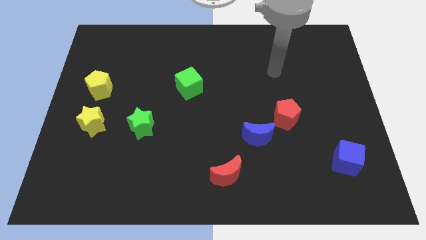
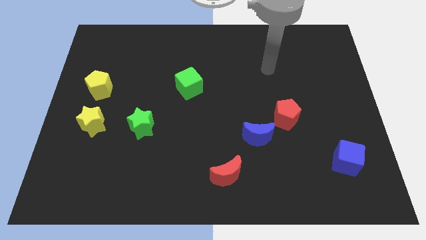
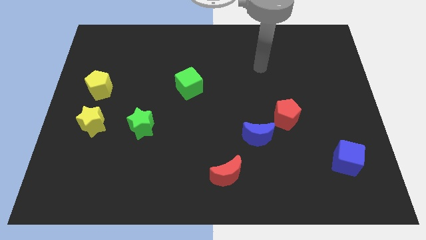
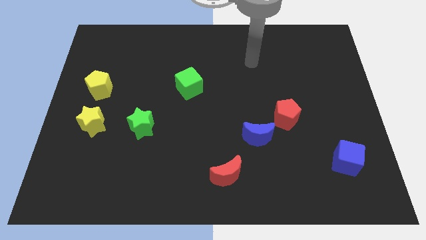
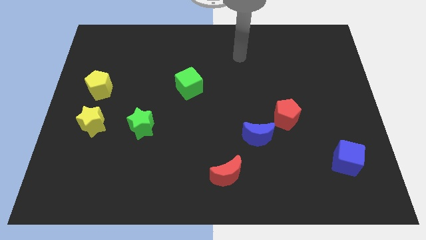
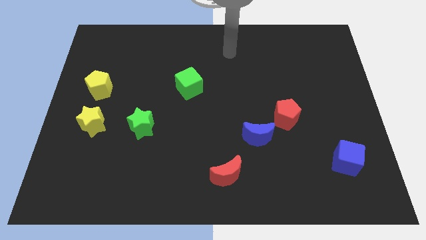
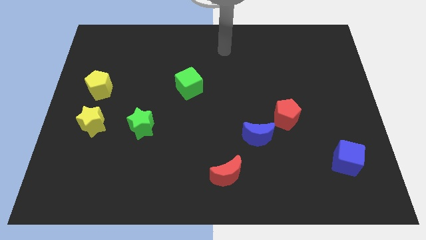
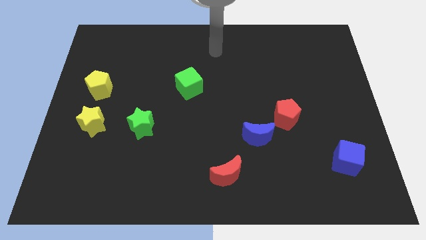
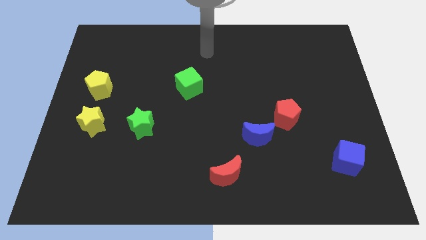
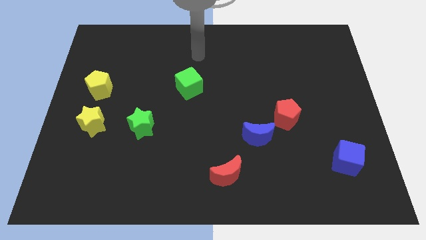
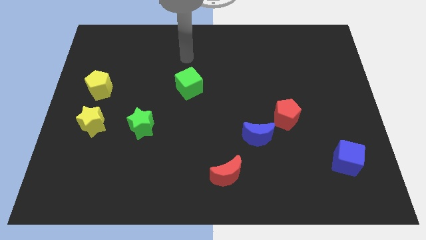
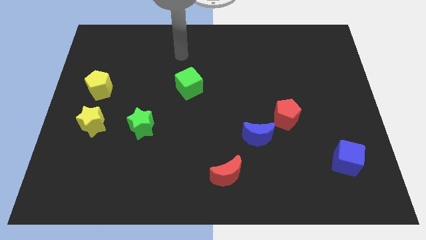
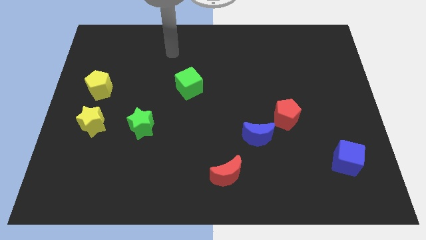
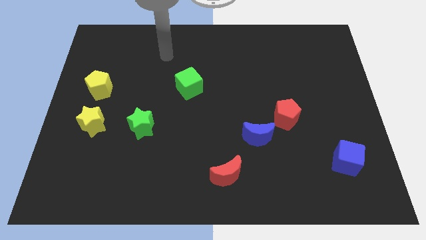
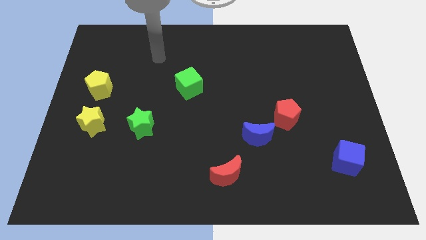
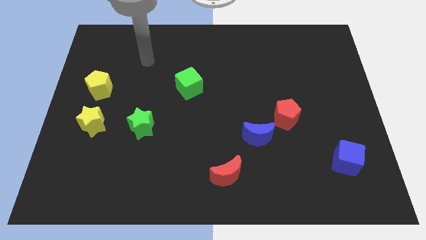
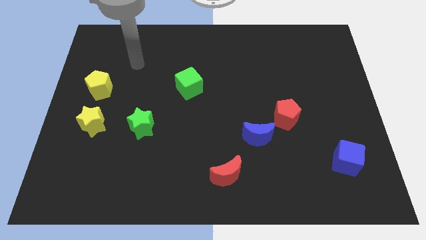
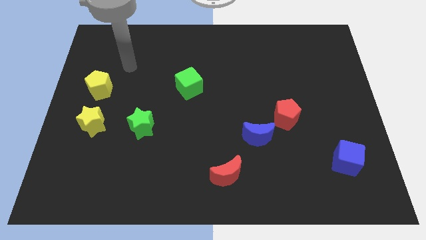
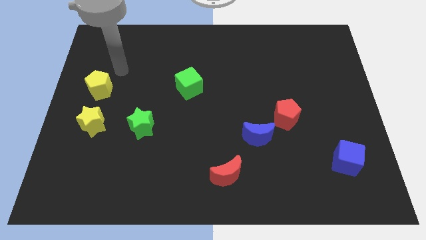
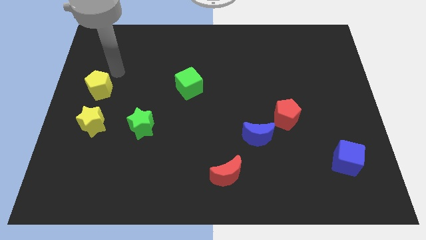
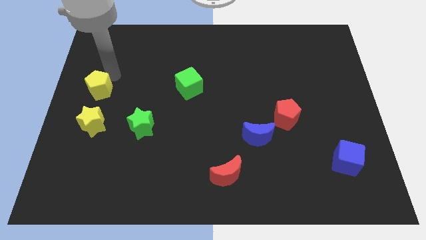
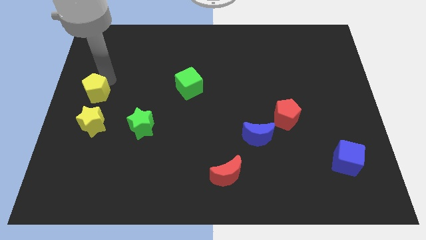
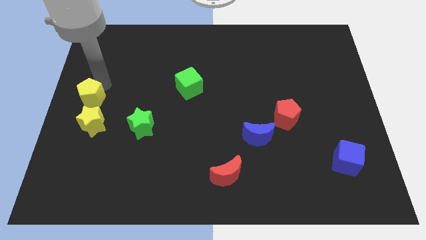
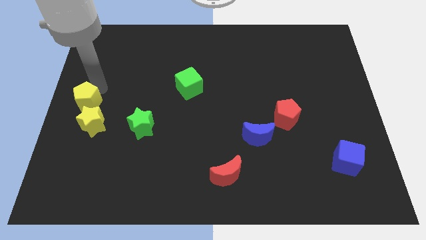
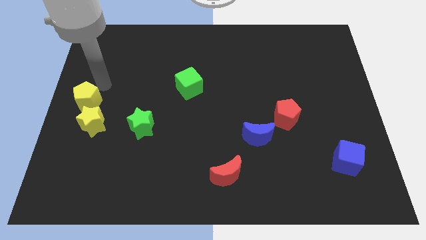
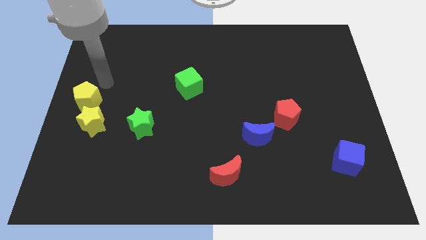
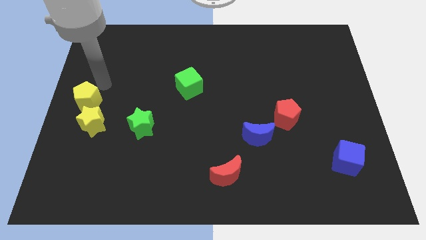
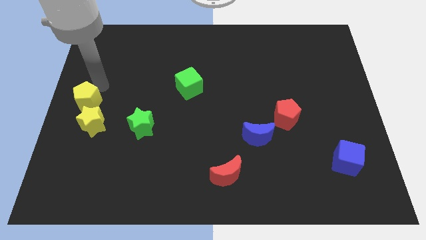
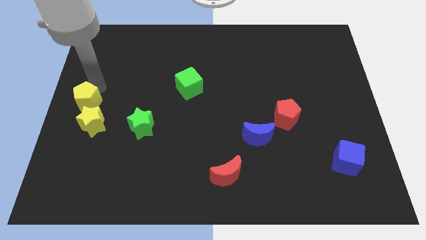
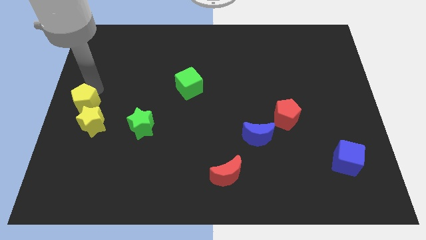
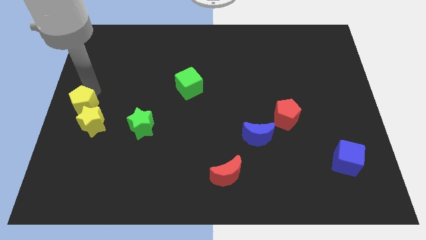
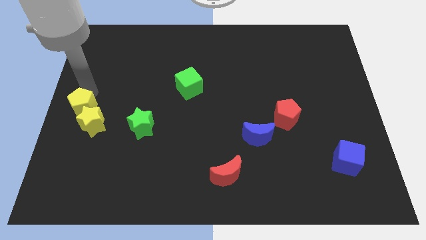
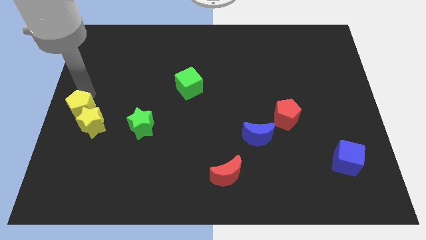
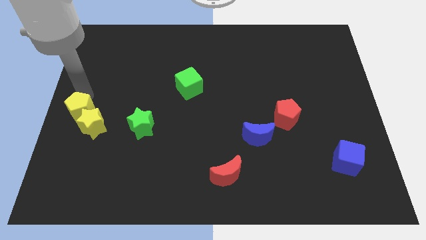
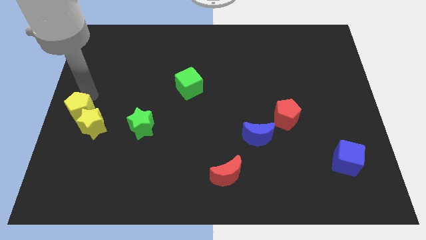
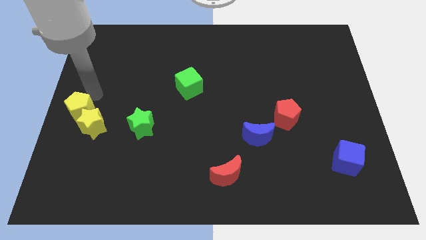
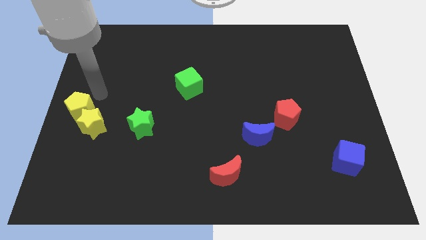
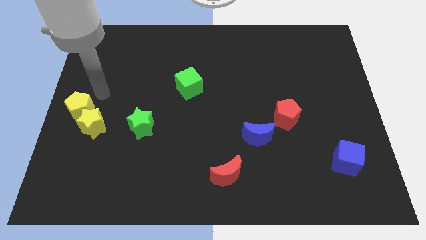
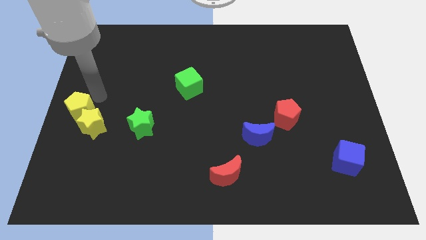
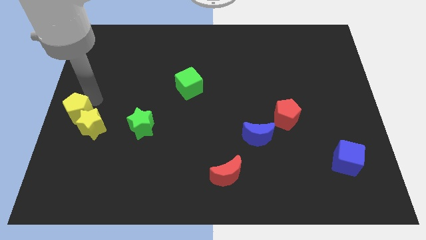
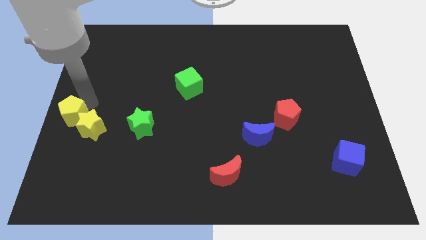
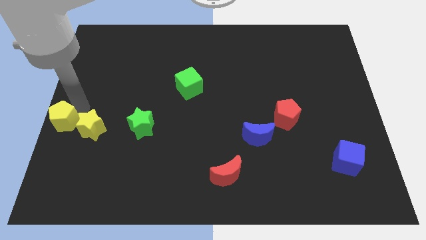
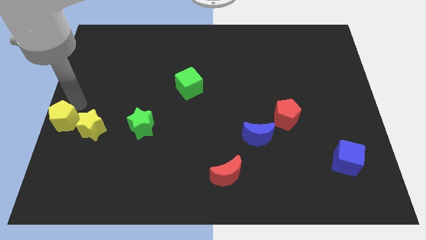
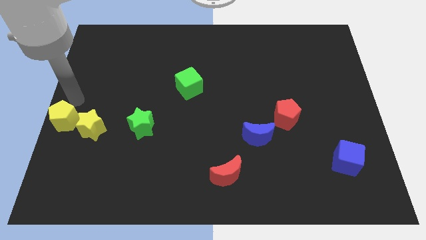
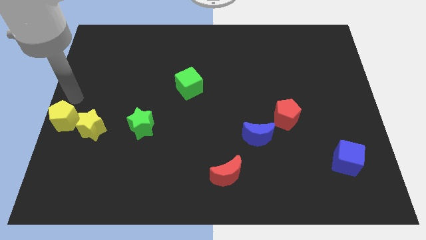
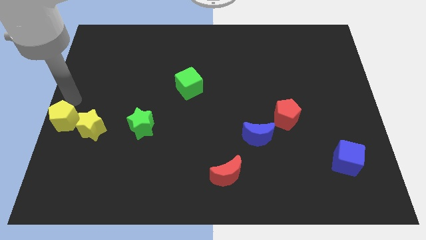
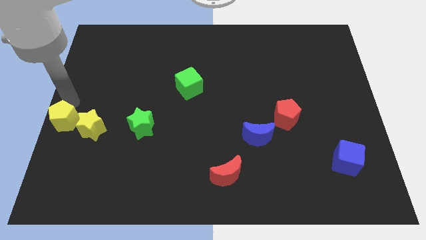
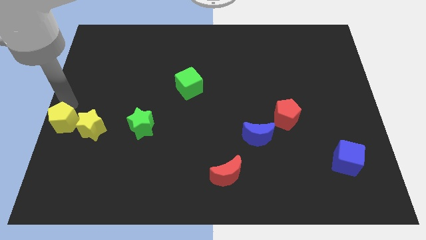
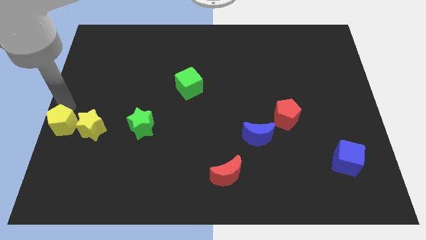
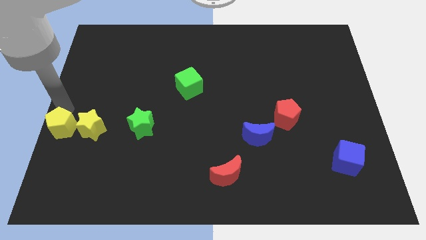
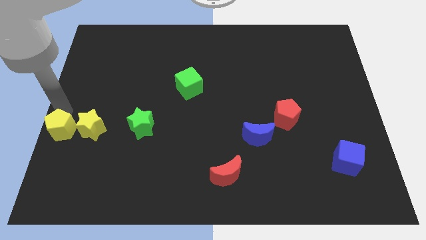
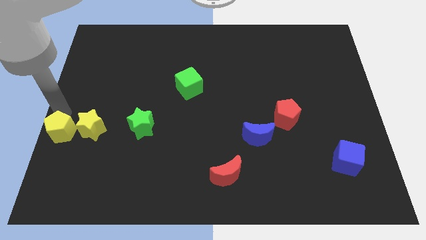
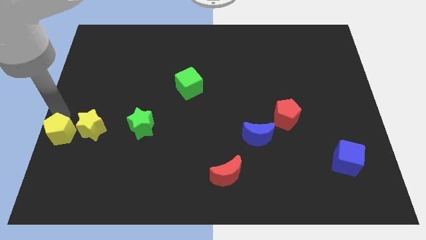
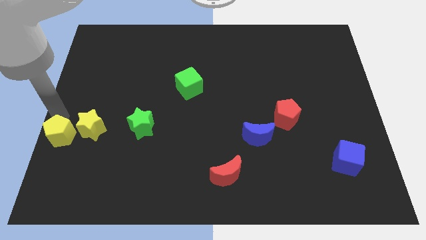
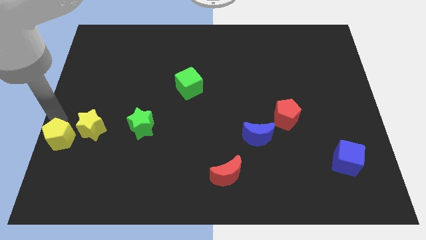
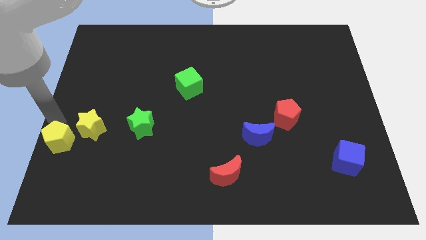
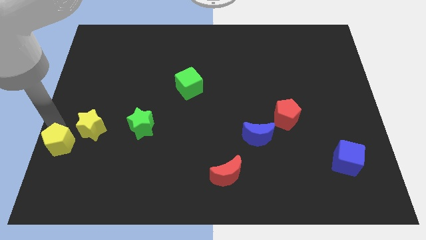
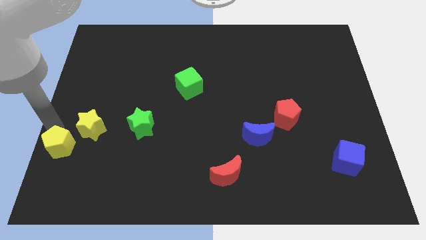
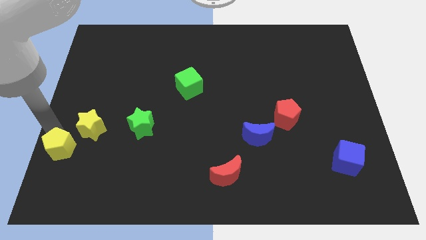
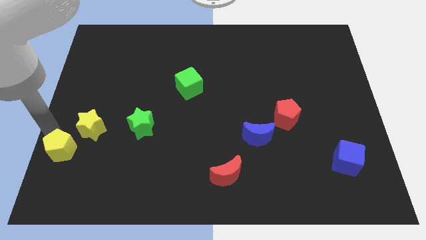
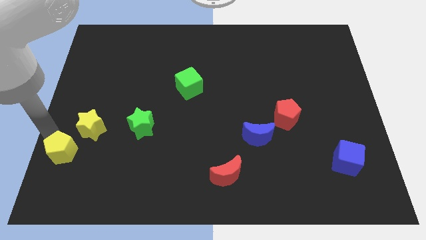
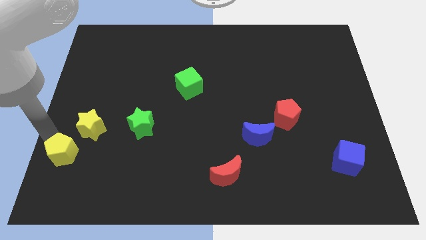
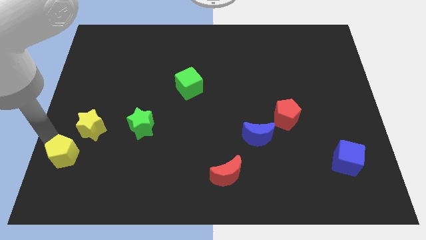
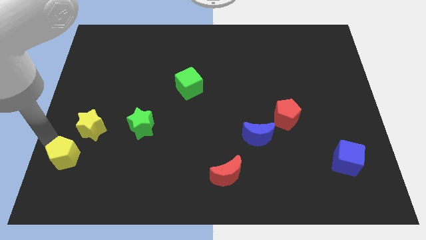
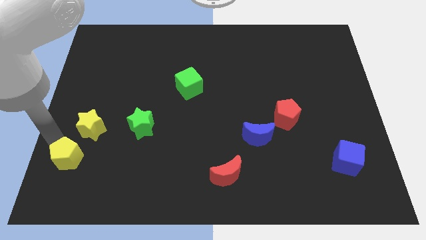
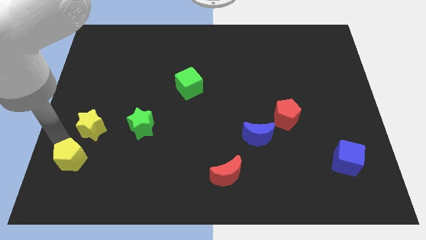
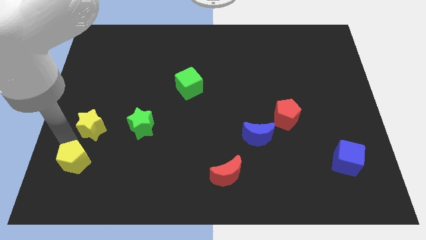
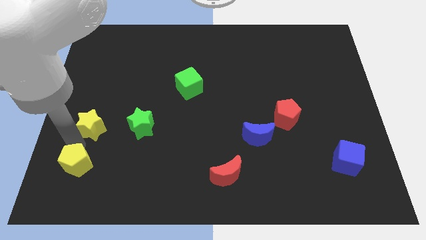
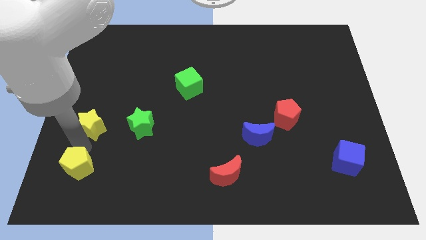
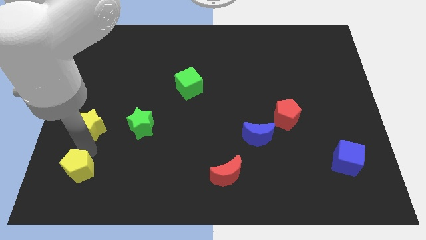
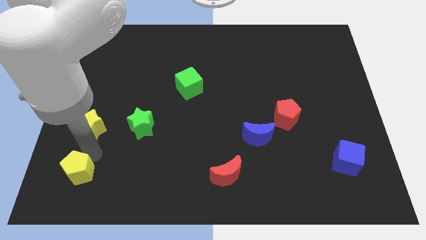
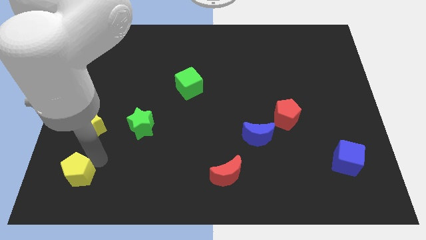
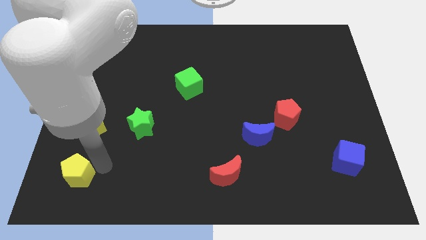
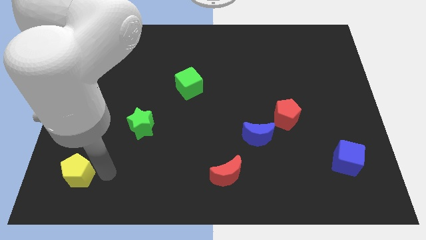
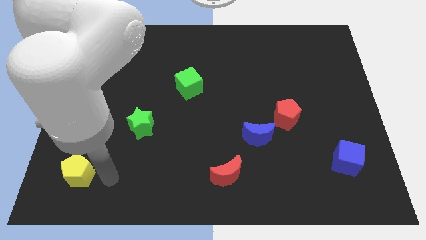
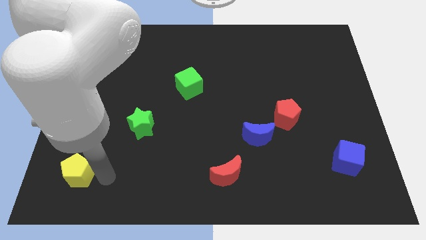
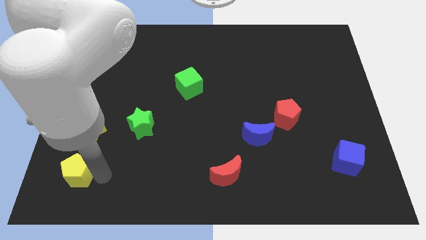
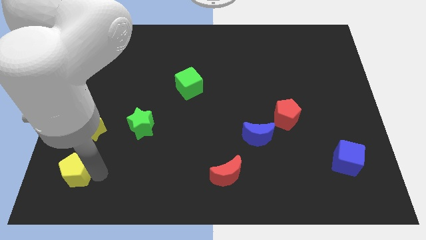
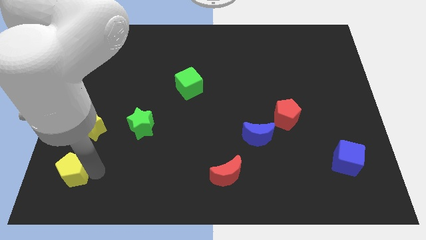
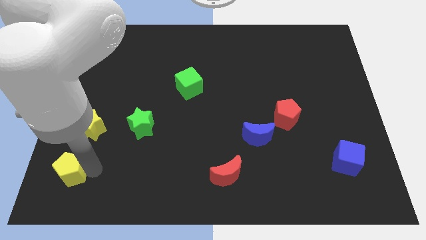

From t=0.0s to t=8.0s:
slide the yellow pentagon to the bottom left of the board
